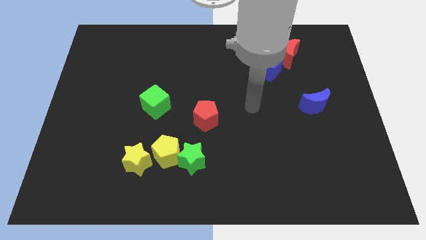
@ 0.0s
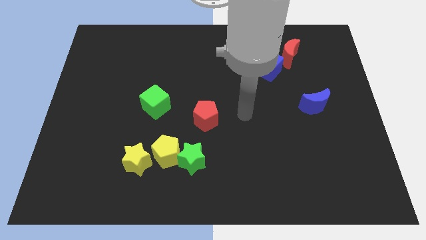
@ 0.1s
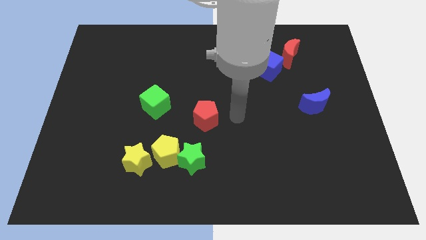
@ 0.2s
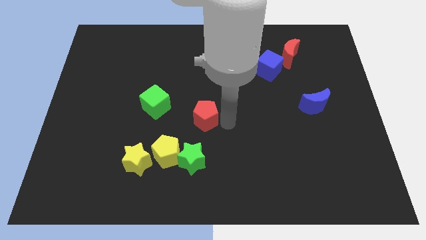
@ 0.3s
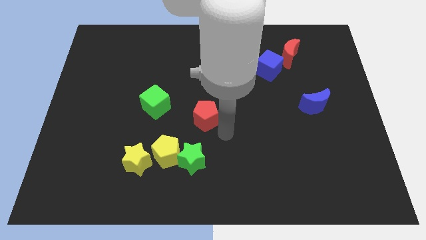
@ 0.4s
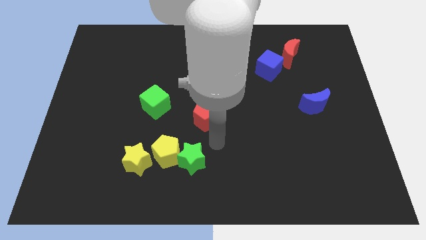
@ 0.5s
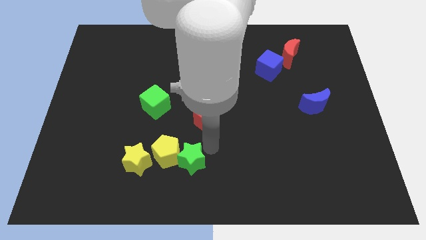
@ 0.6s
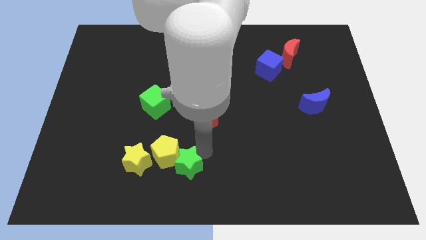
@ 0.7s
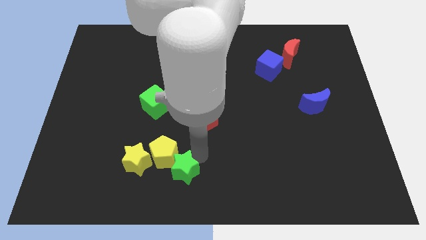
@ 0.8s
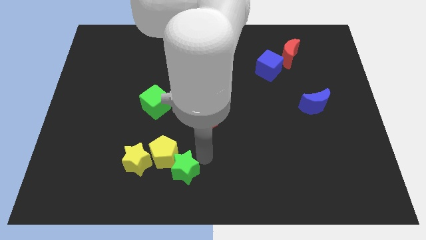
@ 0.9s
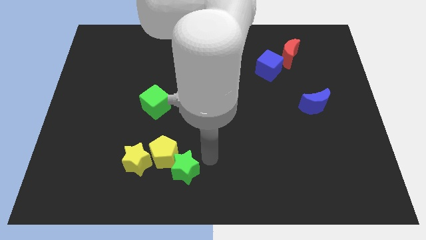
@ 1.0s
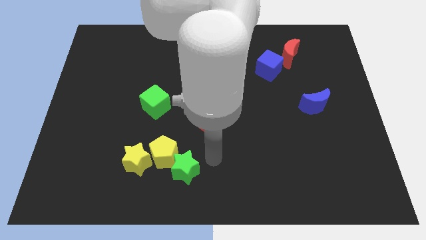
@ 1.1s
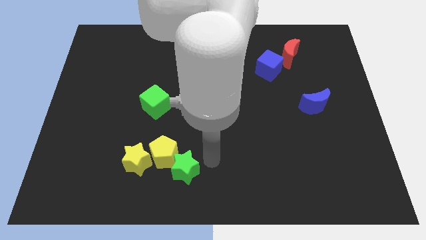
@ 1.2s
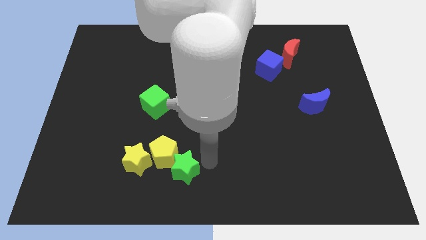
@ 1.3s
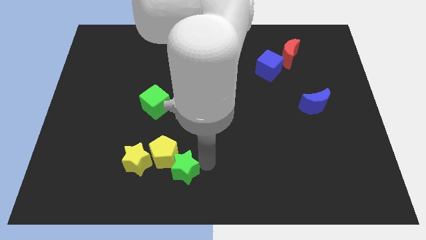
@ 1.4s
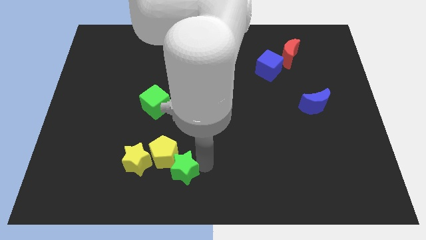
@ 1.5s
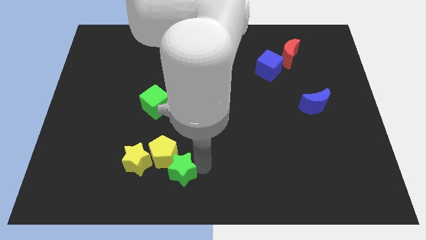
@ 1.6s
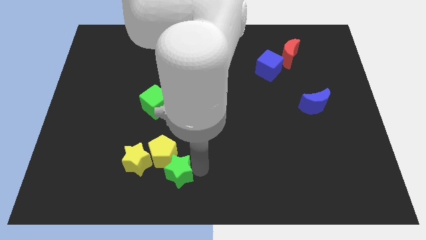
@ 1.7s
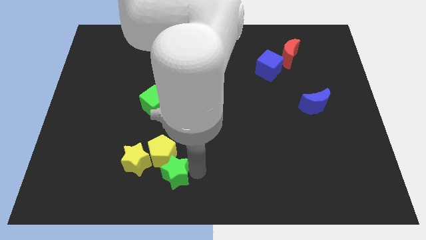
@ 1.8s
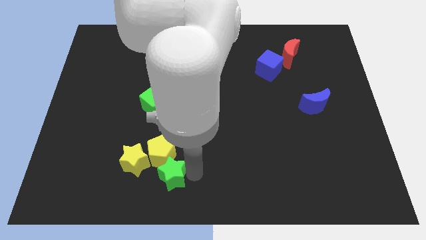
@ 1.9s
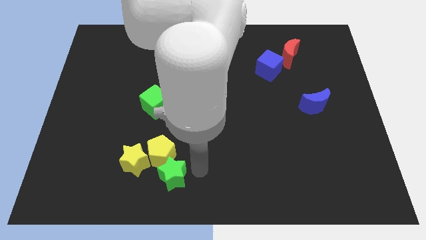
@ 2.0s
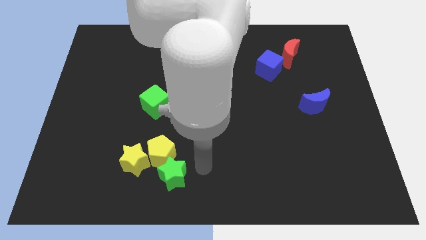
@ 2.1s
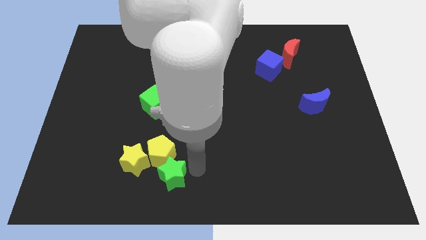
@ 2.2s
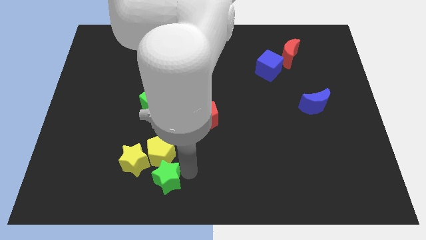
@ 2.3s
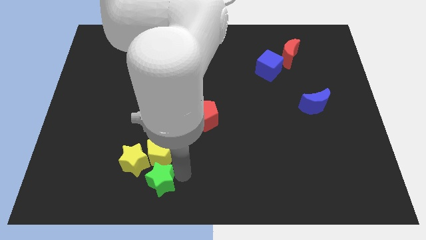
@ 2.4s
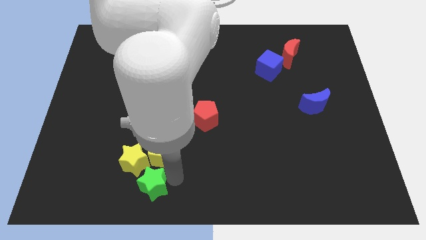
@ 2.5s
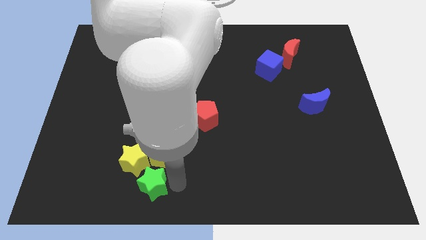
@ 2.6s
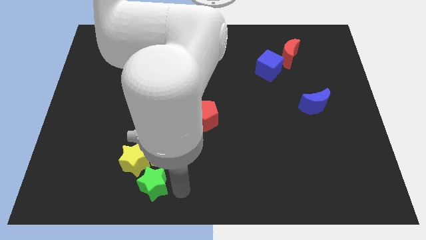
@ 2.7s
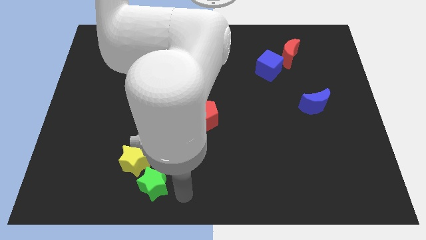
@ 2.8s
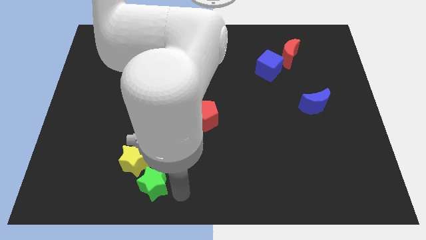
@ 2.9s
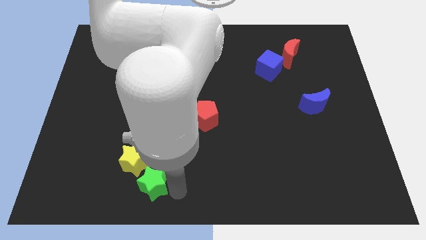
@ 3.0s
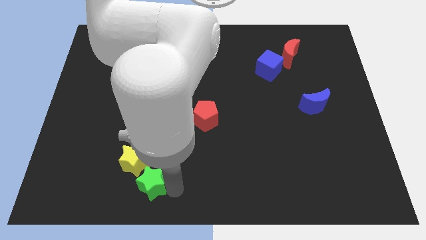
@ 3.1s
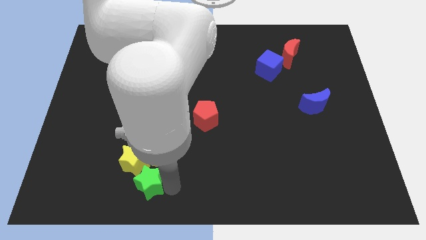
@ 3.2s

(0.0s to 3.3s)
push the green star left slightly

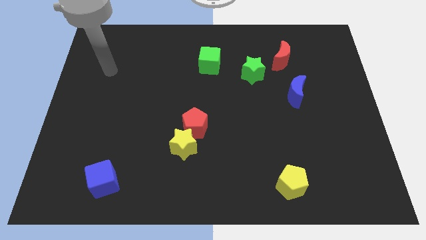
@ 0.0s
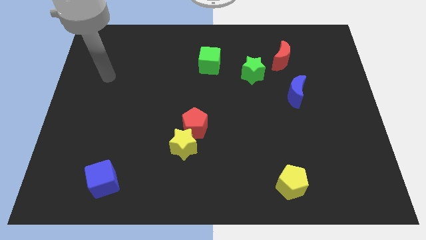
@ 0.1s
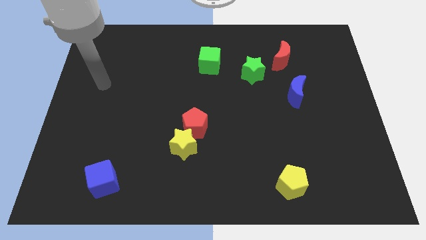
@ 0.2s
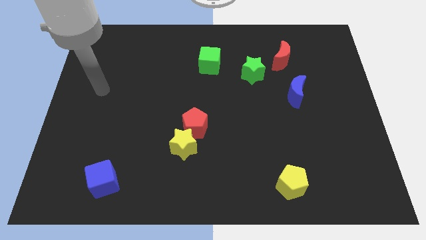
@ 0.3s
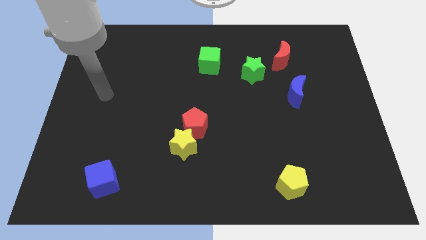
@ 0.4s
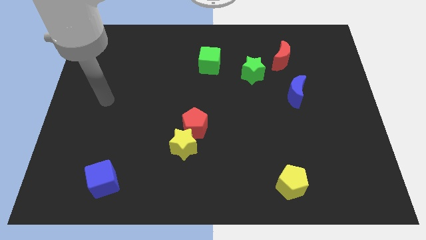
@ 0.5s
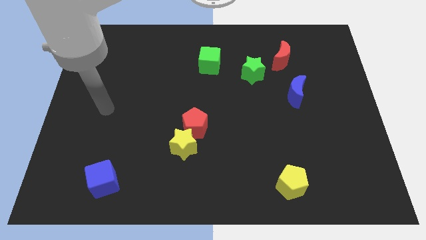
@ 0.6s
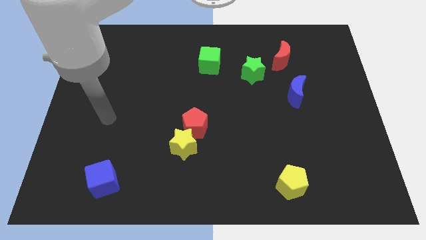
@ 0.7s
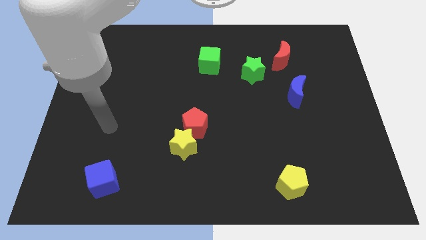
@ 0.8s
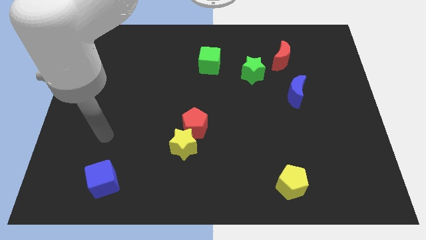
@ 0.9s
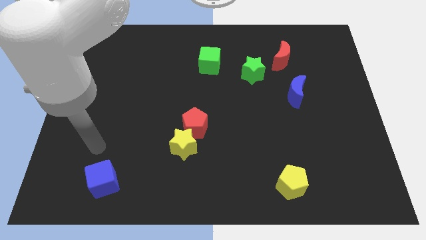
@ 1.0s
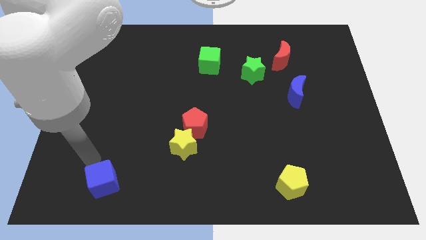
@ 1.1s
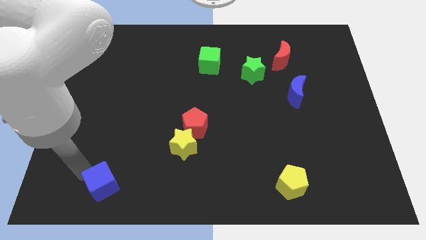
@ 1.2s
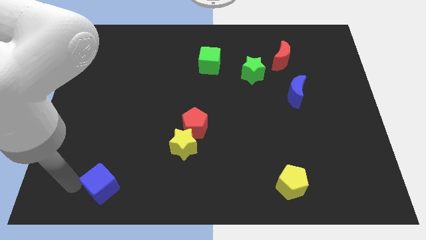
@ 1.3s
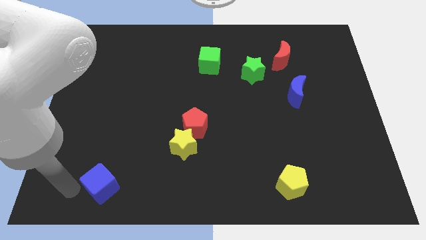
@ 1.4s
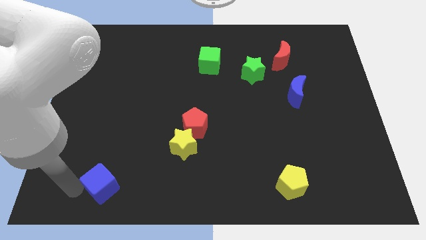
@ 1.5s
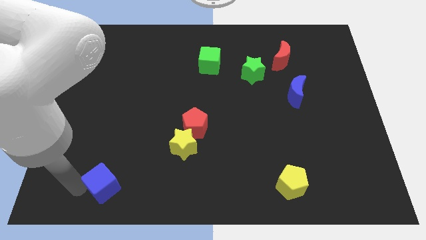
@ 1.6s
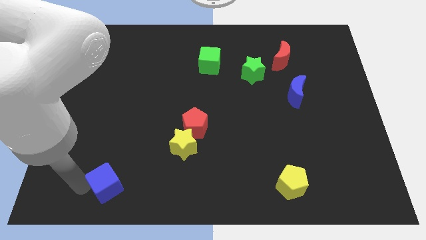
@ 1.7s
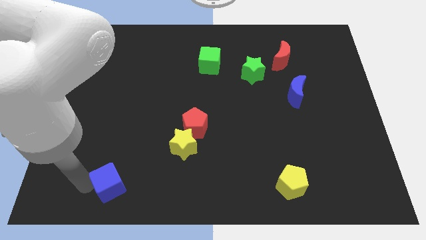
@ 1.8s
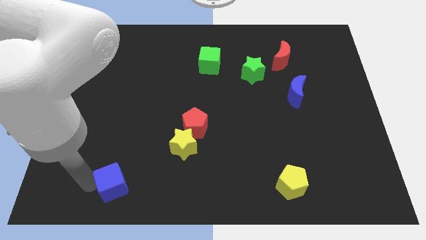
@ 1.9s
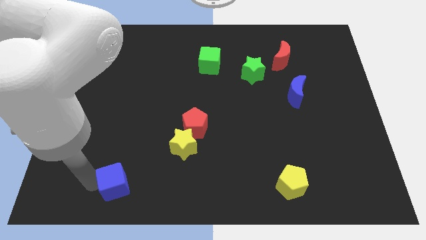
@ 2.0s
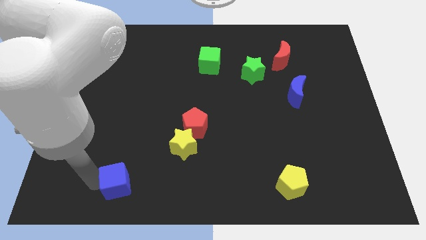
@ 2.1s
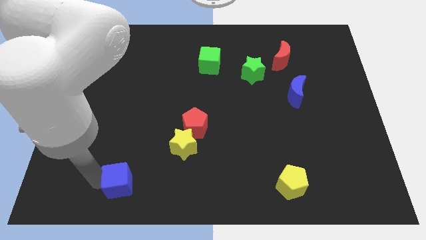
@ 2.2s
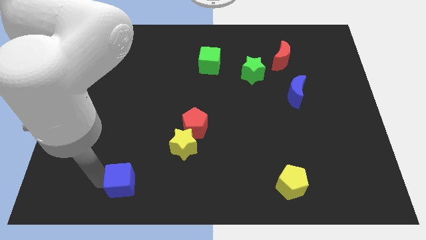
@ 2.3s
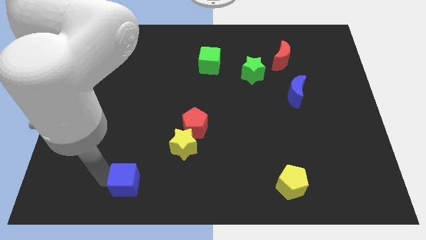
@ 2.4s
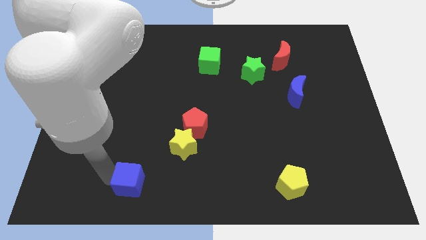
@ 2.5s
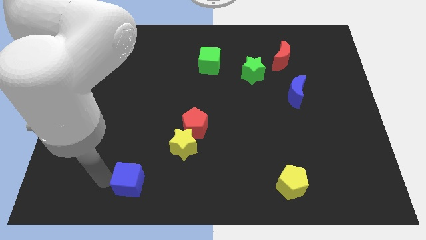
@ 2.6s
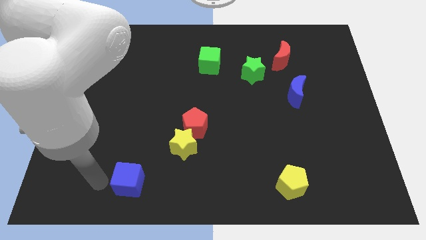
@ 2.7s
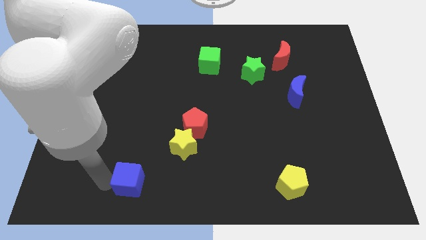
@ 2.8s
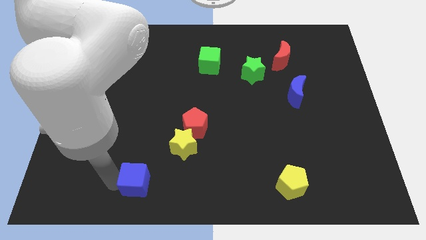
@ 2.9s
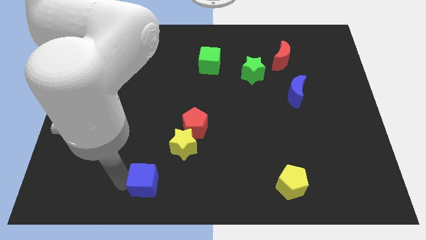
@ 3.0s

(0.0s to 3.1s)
slide the blue cube right a bit

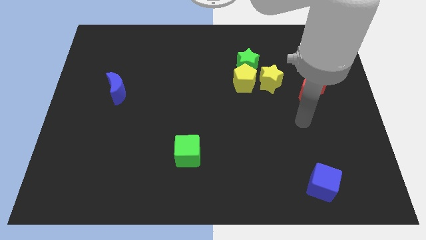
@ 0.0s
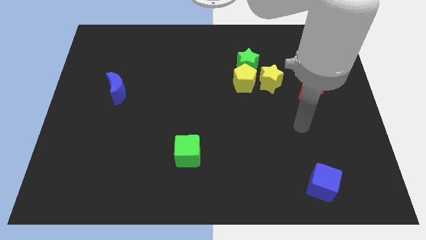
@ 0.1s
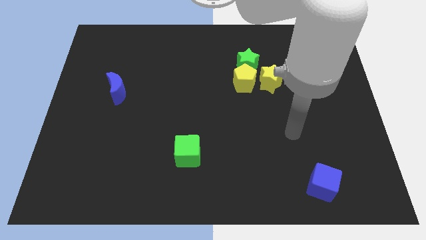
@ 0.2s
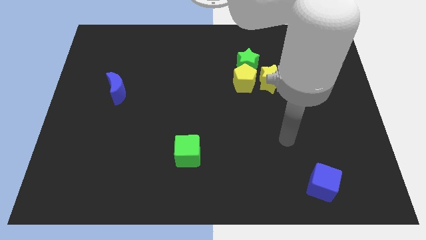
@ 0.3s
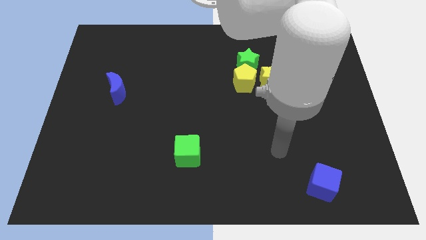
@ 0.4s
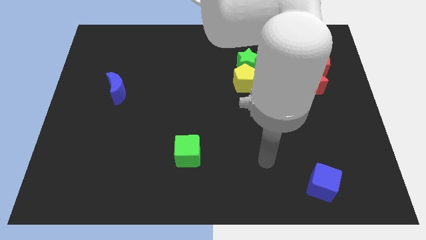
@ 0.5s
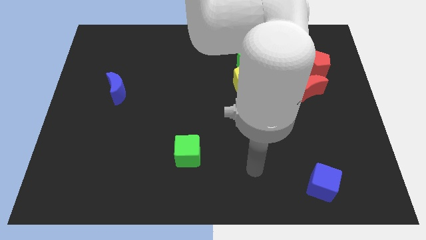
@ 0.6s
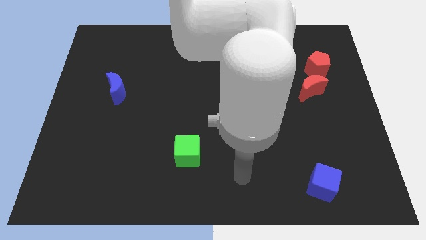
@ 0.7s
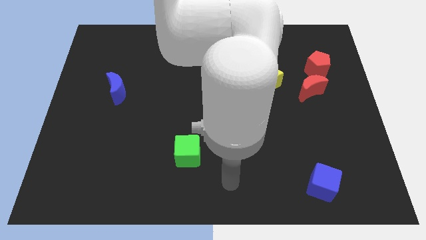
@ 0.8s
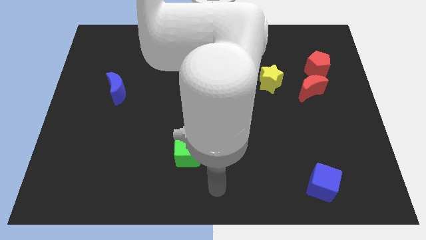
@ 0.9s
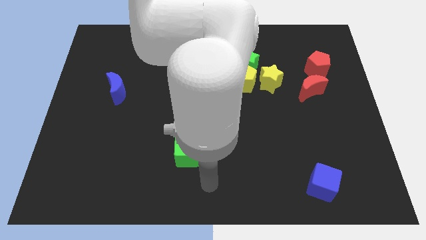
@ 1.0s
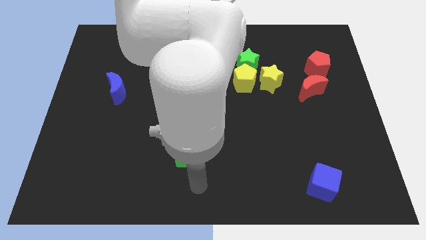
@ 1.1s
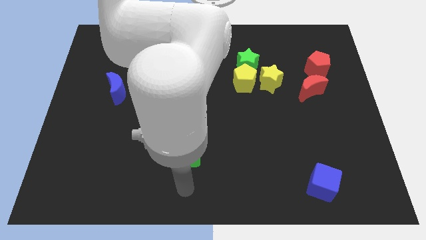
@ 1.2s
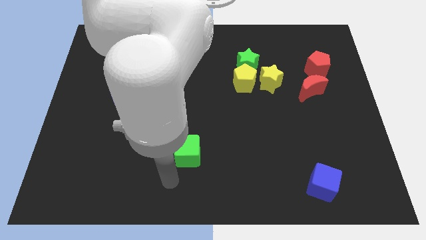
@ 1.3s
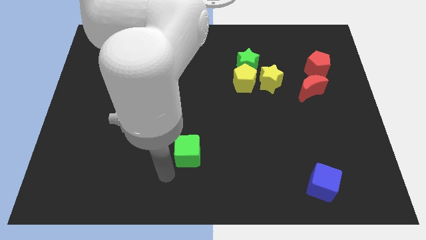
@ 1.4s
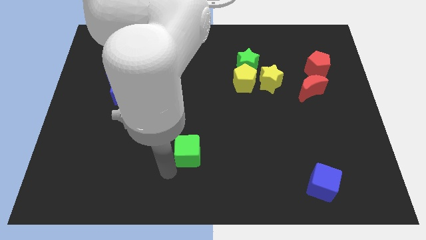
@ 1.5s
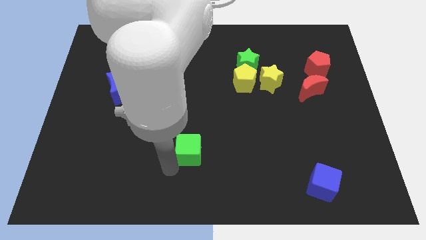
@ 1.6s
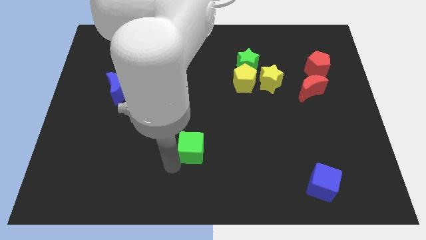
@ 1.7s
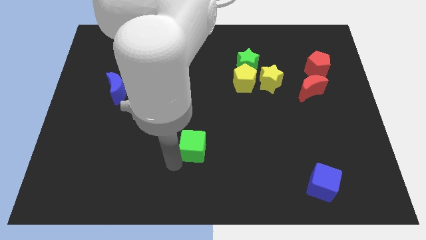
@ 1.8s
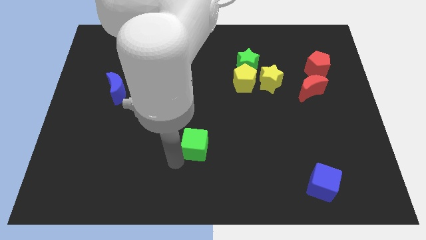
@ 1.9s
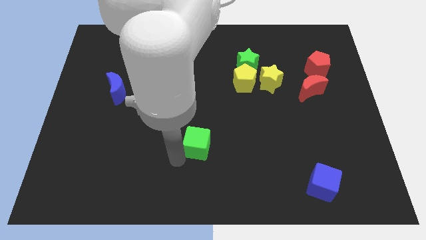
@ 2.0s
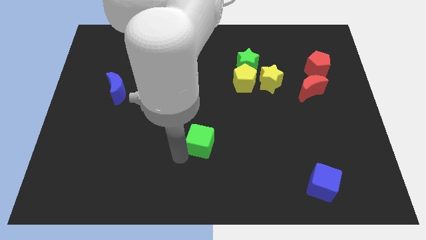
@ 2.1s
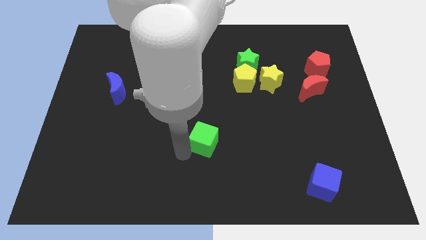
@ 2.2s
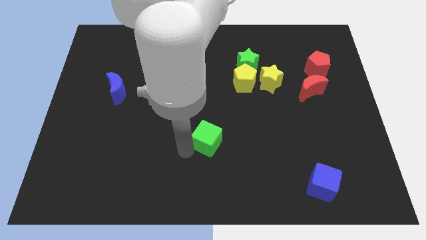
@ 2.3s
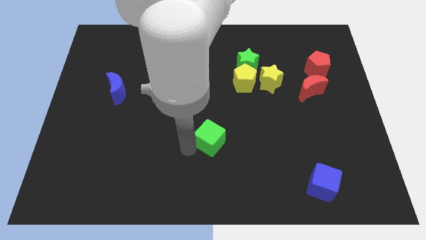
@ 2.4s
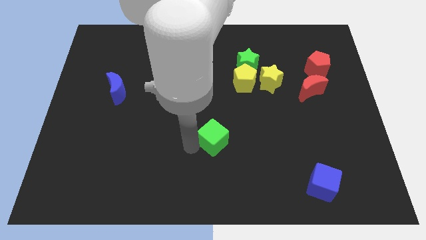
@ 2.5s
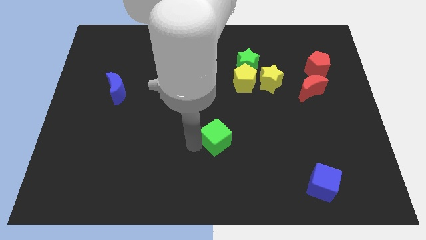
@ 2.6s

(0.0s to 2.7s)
slightly push the green cube up and to the right
